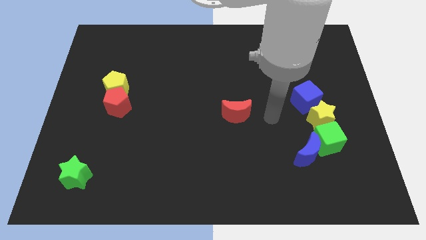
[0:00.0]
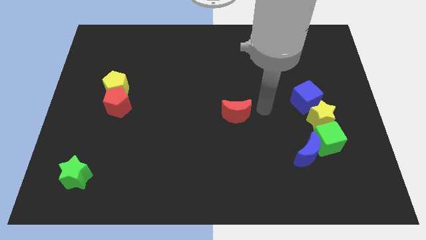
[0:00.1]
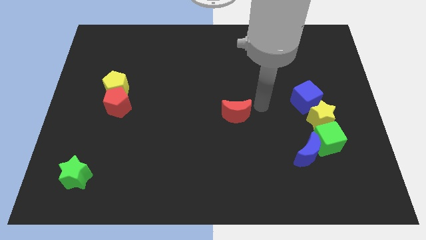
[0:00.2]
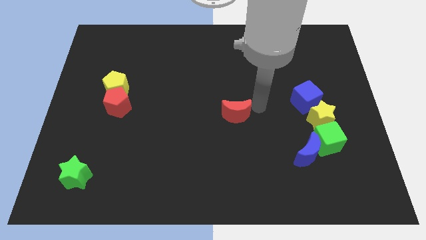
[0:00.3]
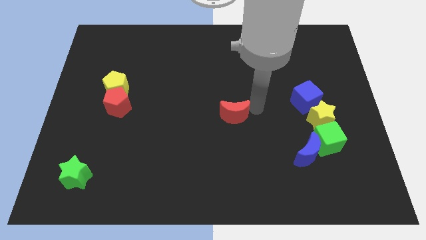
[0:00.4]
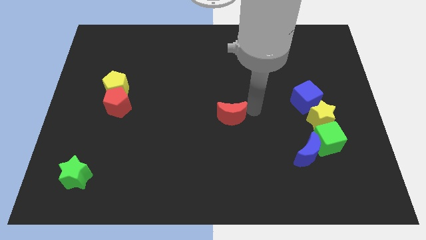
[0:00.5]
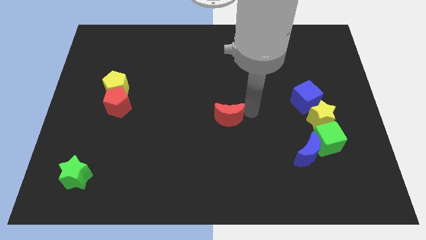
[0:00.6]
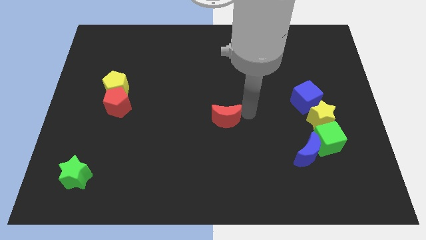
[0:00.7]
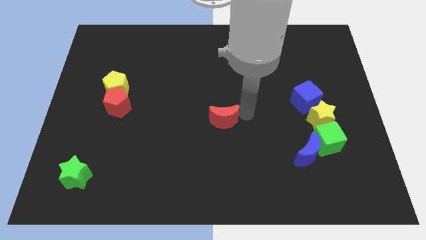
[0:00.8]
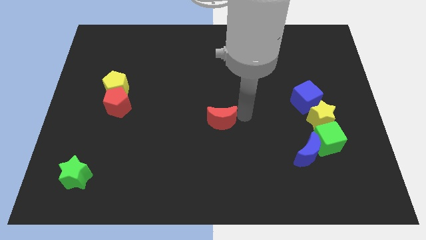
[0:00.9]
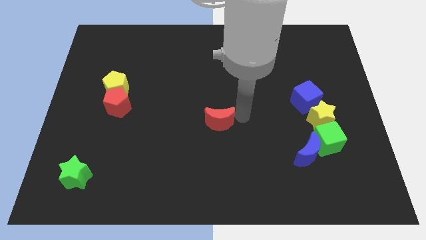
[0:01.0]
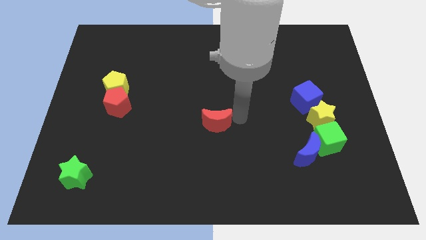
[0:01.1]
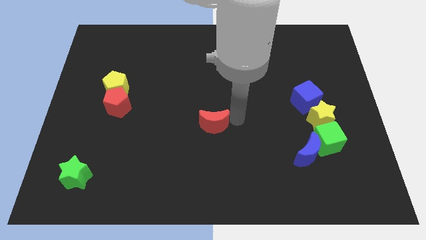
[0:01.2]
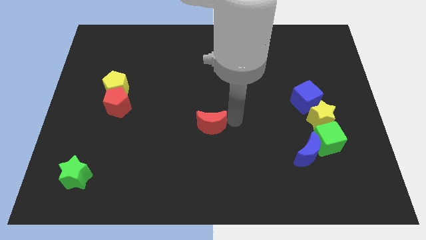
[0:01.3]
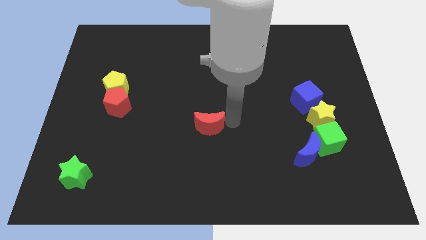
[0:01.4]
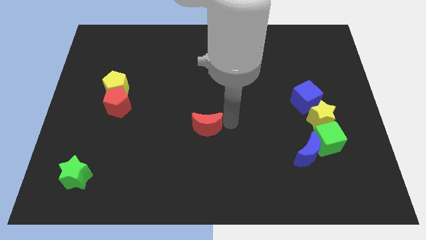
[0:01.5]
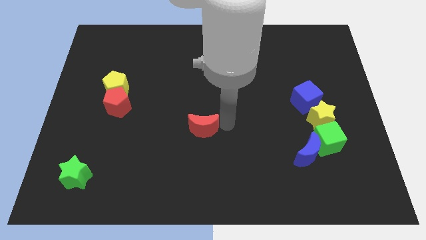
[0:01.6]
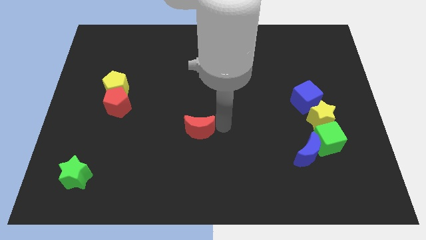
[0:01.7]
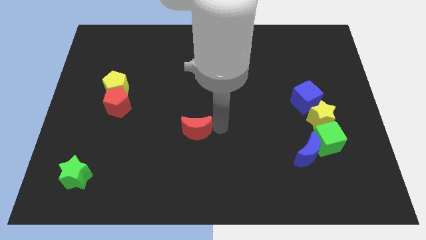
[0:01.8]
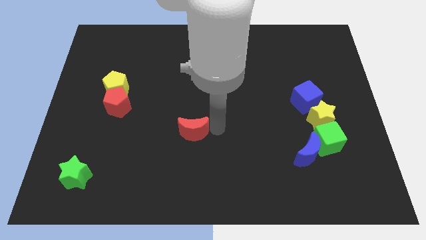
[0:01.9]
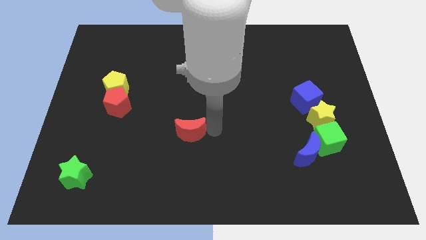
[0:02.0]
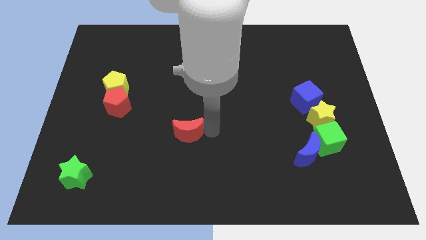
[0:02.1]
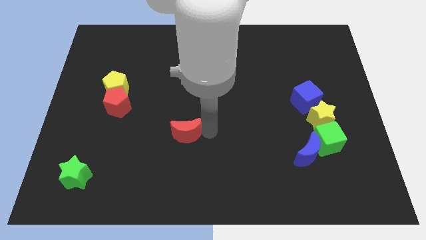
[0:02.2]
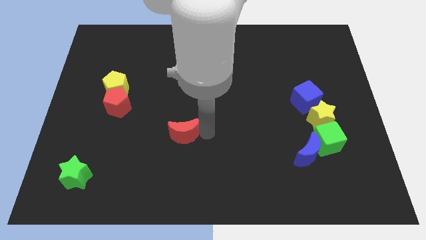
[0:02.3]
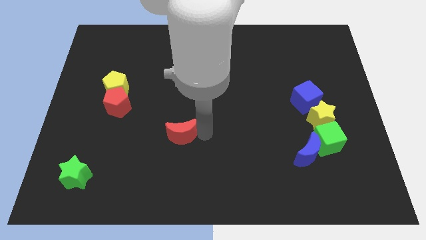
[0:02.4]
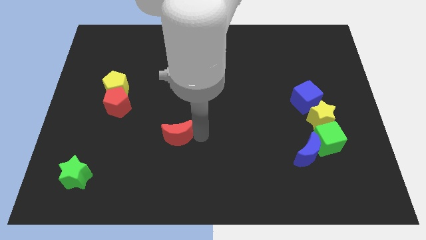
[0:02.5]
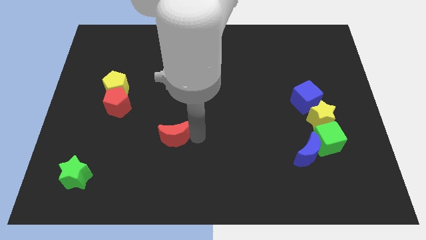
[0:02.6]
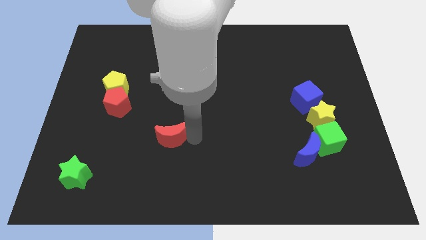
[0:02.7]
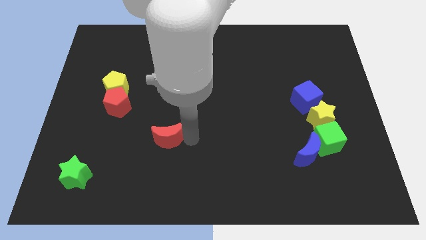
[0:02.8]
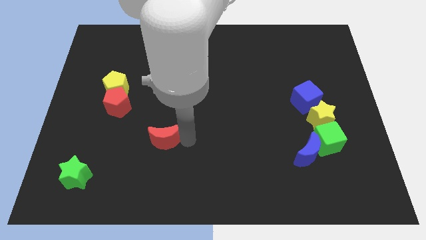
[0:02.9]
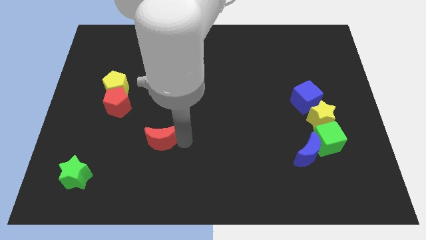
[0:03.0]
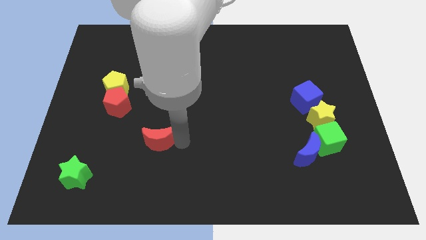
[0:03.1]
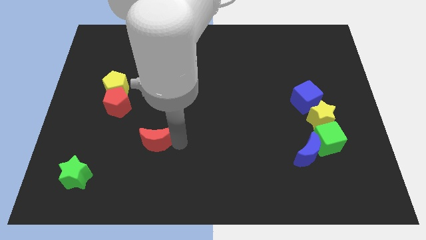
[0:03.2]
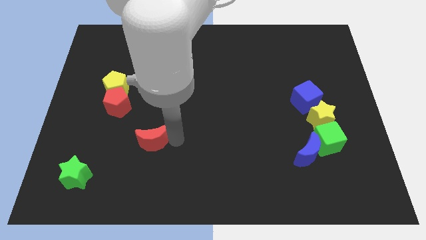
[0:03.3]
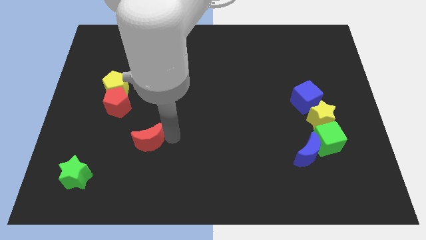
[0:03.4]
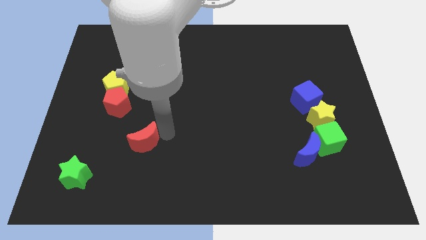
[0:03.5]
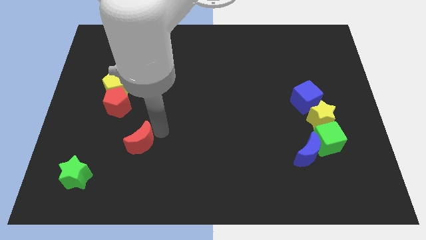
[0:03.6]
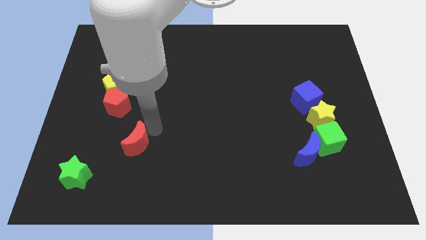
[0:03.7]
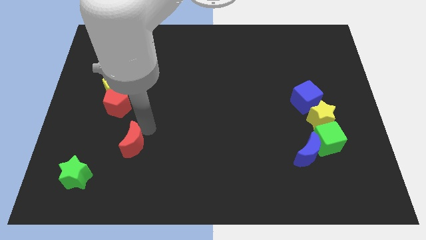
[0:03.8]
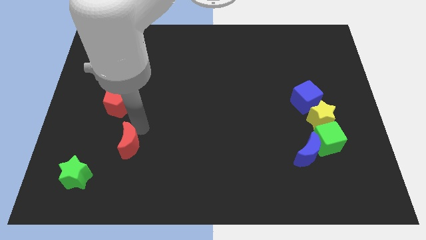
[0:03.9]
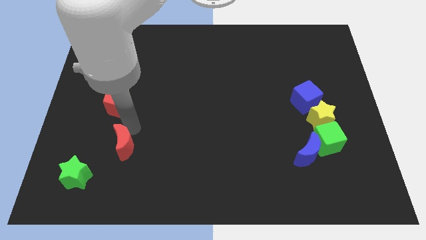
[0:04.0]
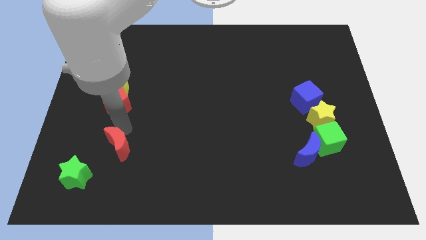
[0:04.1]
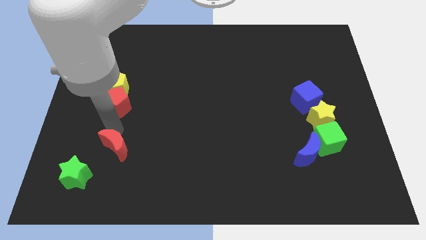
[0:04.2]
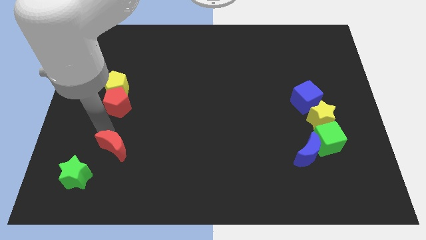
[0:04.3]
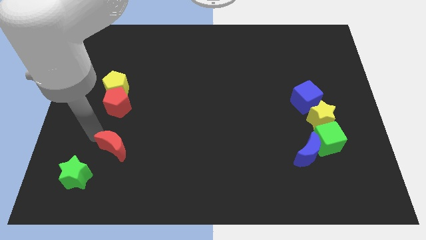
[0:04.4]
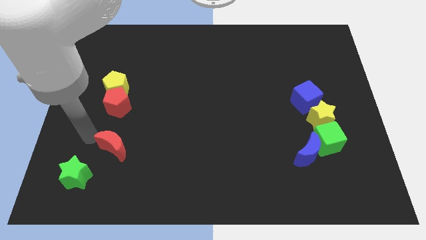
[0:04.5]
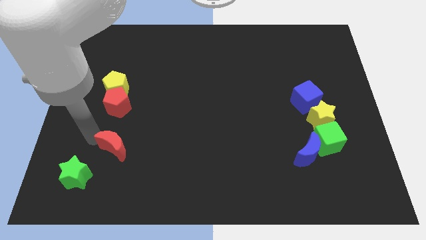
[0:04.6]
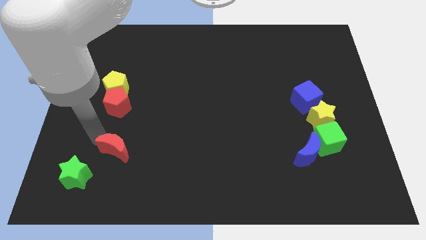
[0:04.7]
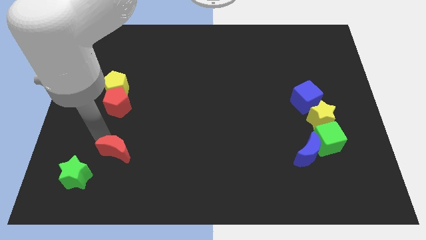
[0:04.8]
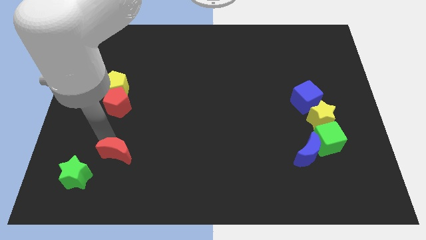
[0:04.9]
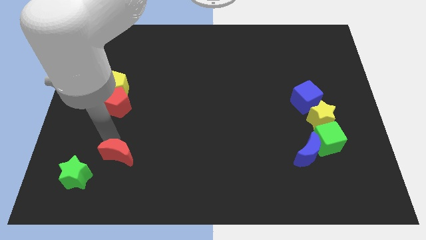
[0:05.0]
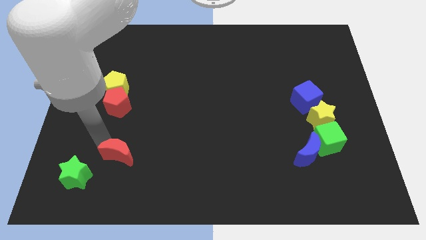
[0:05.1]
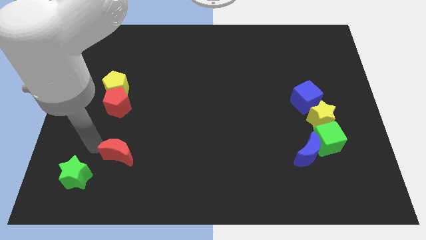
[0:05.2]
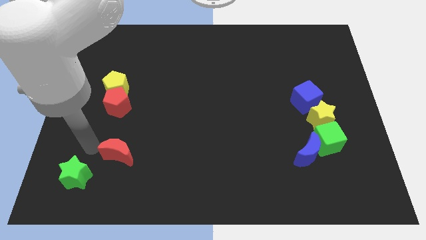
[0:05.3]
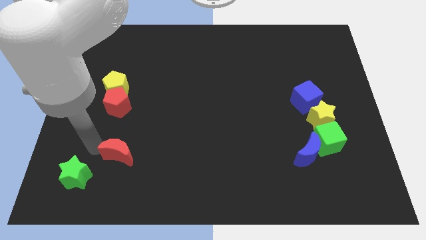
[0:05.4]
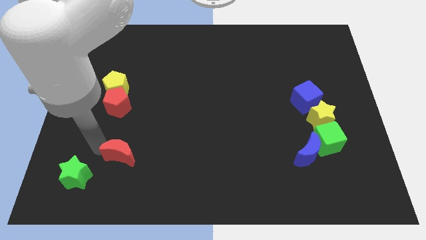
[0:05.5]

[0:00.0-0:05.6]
slide the red moon to the right side of the green star

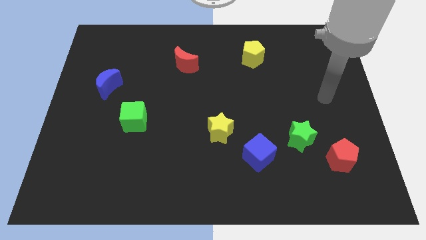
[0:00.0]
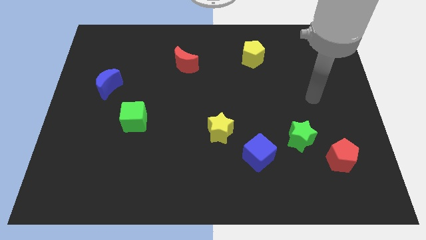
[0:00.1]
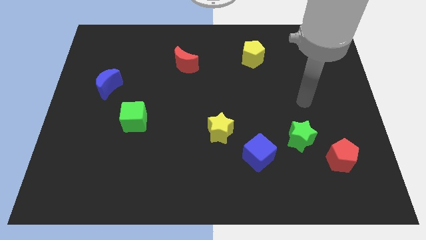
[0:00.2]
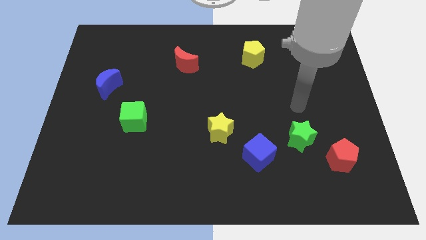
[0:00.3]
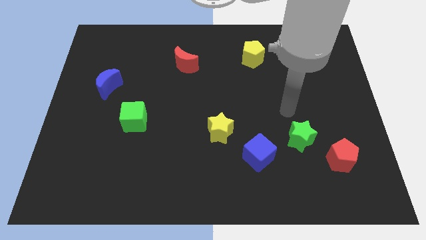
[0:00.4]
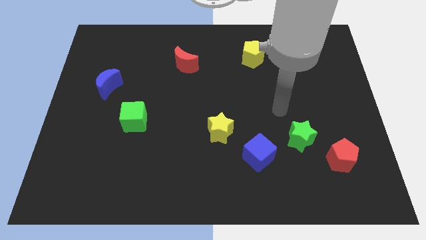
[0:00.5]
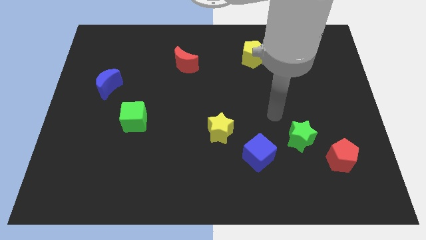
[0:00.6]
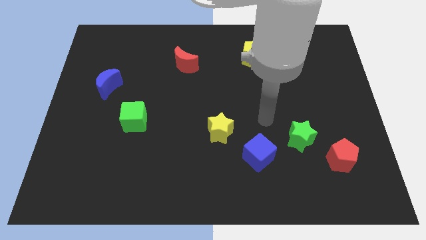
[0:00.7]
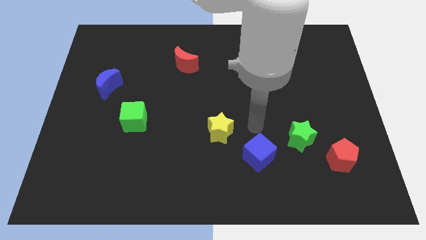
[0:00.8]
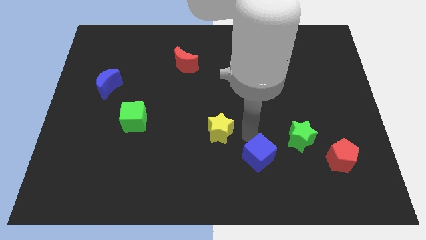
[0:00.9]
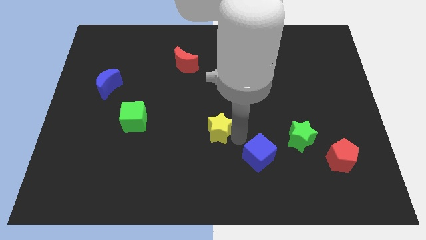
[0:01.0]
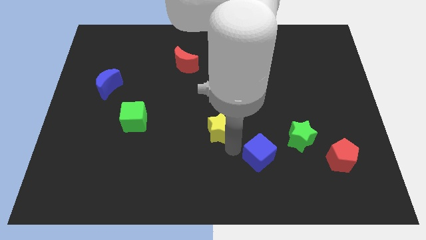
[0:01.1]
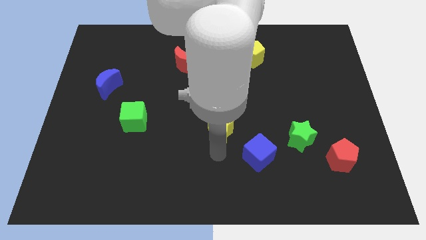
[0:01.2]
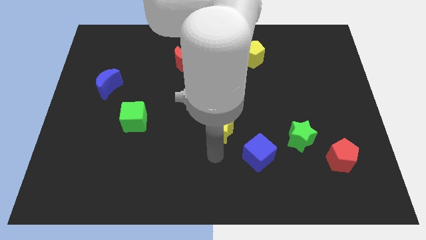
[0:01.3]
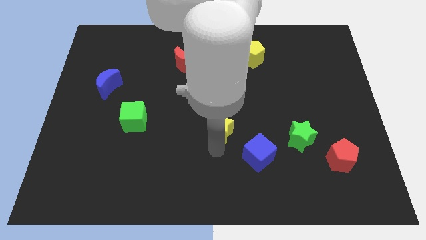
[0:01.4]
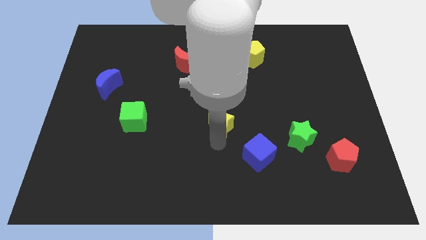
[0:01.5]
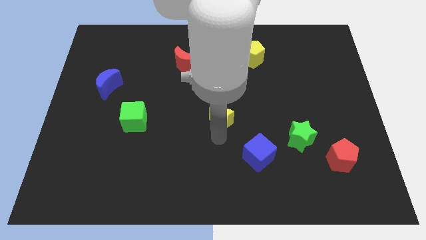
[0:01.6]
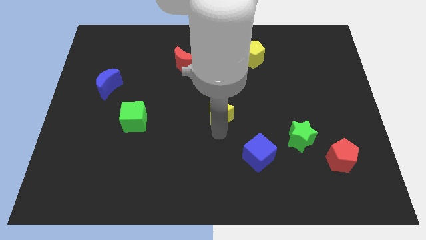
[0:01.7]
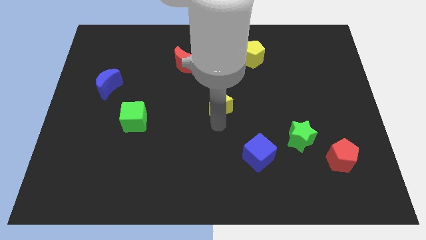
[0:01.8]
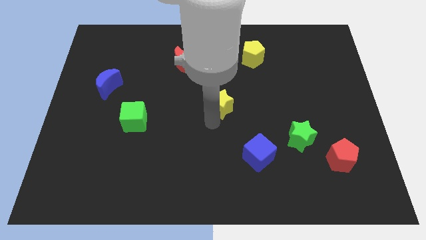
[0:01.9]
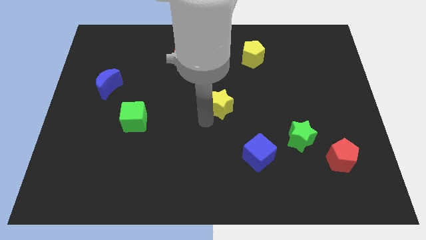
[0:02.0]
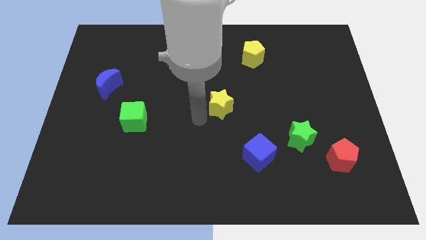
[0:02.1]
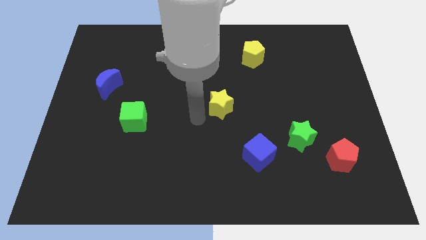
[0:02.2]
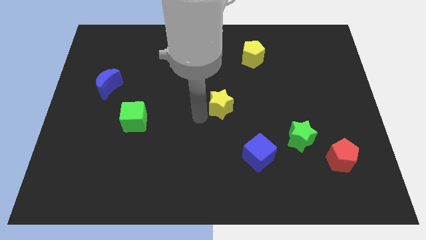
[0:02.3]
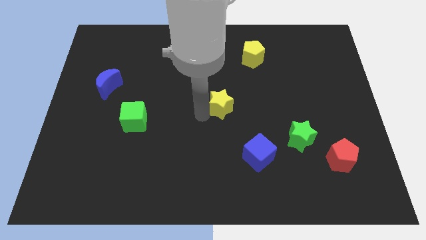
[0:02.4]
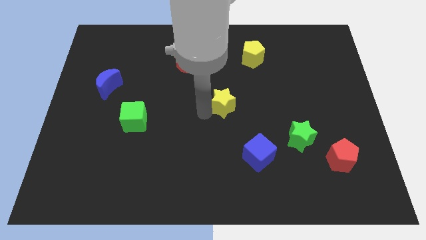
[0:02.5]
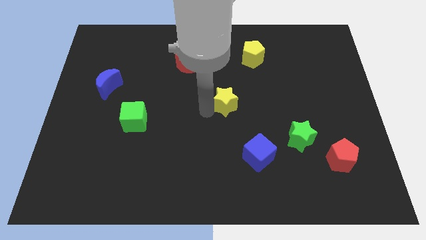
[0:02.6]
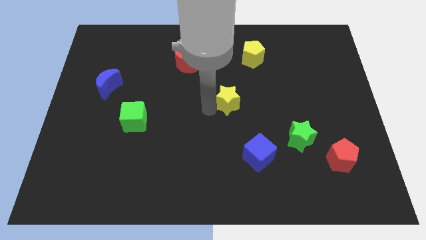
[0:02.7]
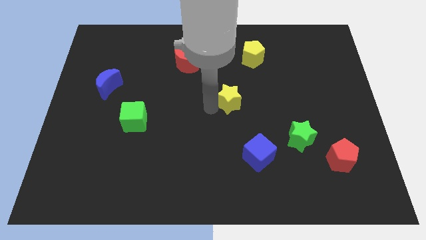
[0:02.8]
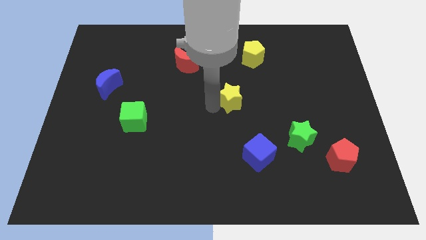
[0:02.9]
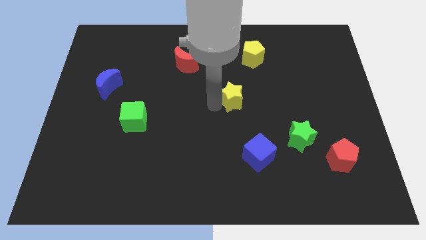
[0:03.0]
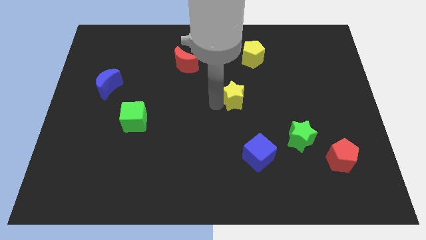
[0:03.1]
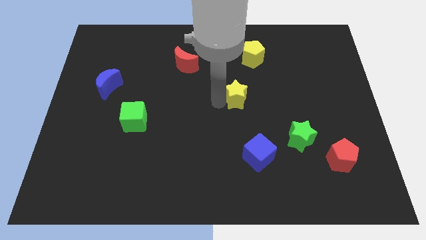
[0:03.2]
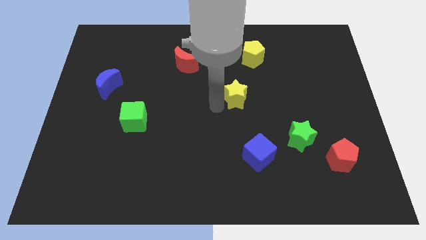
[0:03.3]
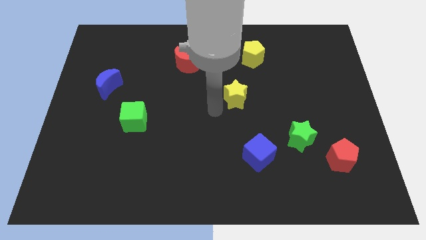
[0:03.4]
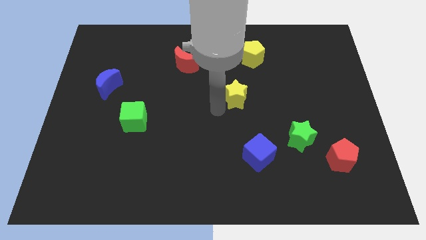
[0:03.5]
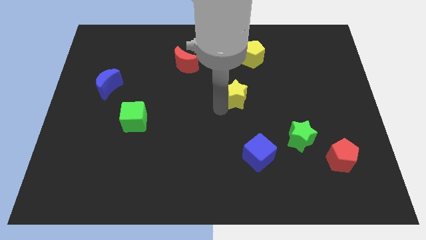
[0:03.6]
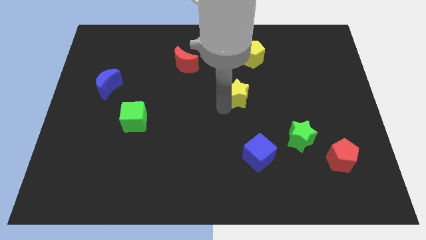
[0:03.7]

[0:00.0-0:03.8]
push the yellow star to the bottom of the yellow pentagon
